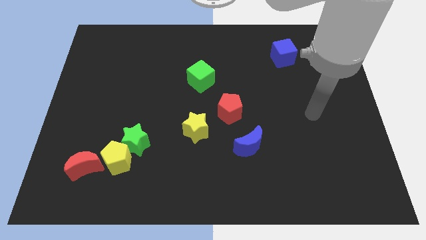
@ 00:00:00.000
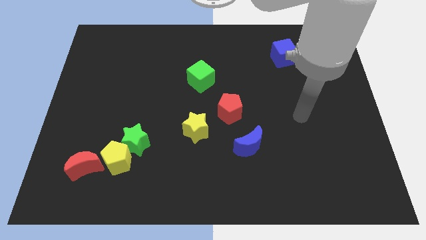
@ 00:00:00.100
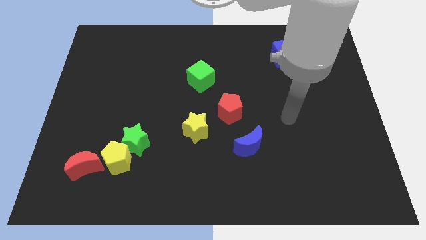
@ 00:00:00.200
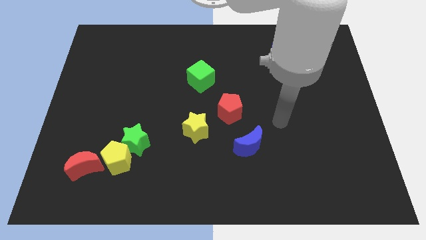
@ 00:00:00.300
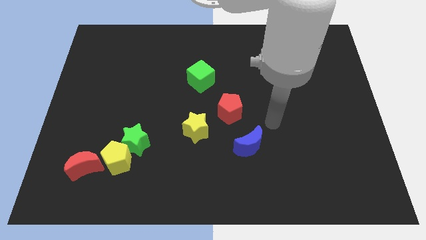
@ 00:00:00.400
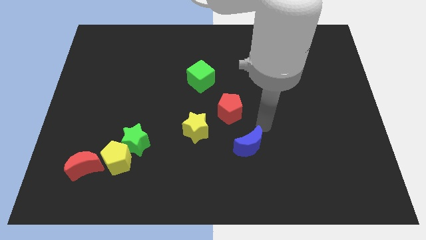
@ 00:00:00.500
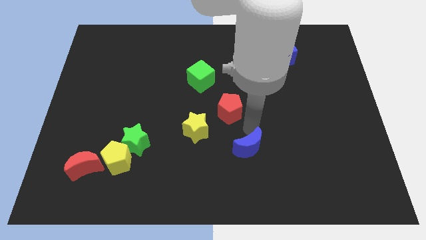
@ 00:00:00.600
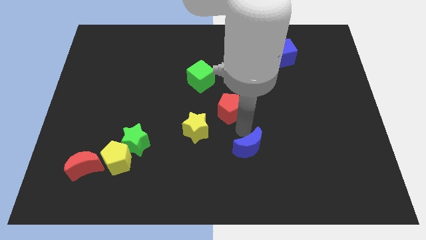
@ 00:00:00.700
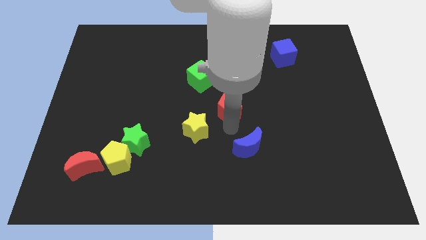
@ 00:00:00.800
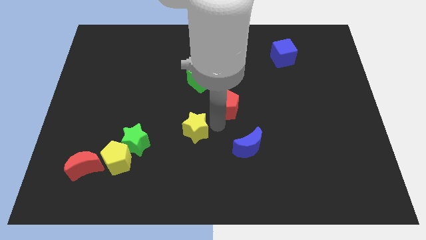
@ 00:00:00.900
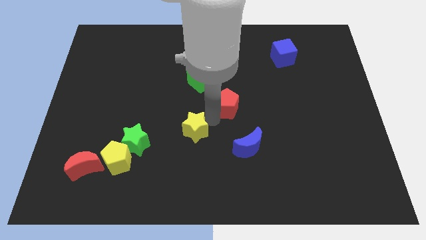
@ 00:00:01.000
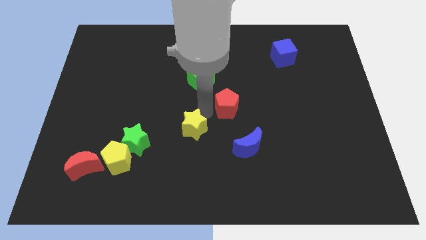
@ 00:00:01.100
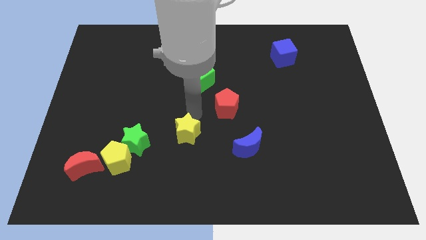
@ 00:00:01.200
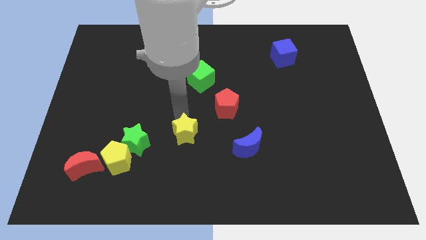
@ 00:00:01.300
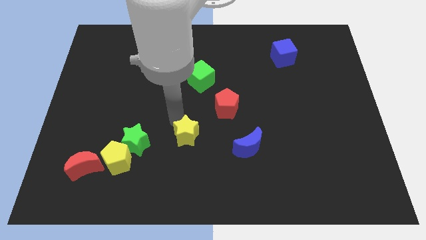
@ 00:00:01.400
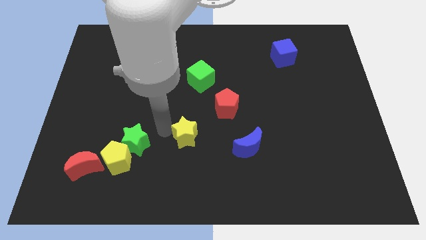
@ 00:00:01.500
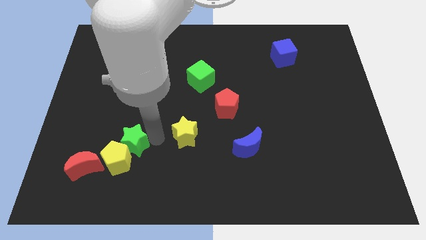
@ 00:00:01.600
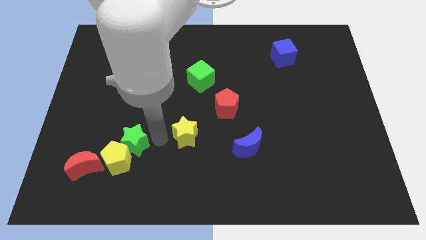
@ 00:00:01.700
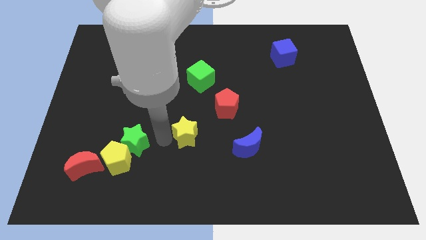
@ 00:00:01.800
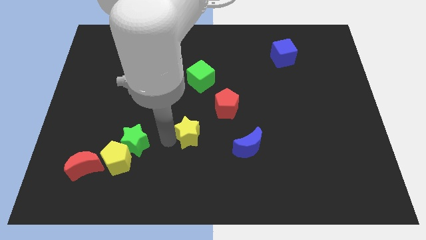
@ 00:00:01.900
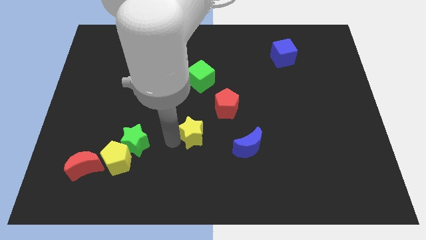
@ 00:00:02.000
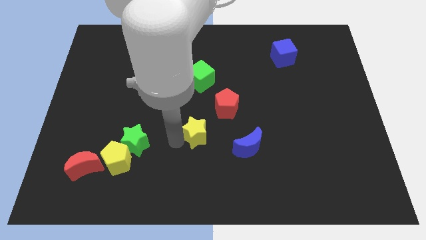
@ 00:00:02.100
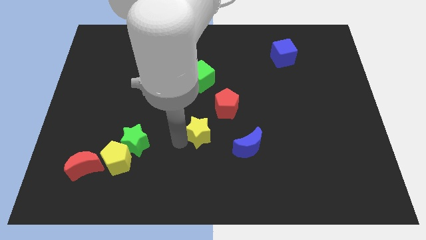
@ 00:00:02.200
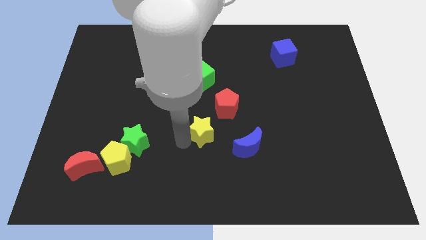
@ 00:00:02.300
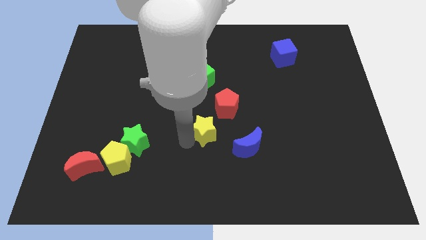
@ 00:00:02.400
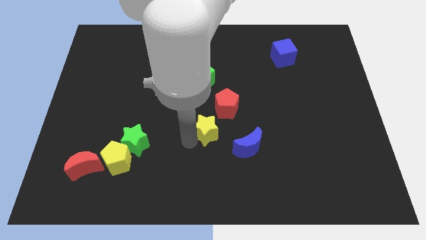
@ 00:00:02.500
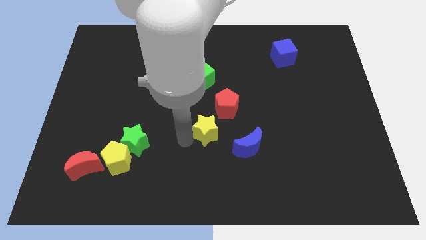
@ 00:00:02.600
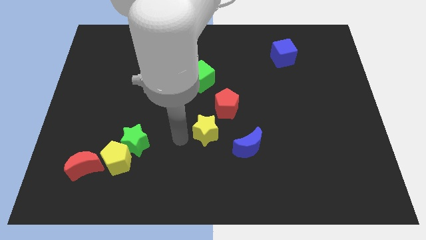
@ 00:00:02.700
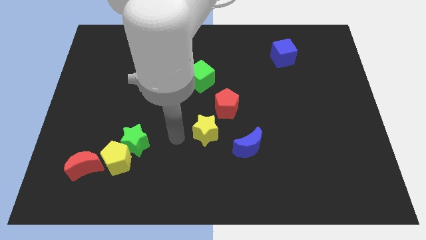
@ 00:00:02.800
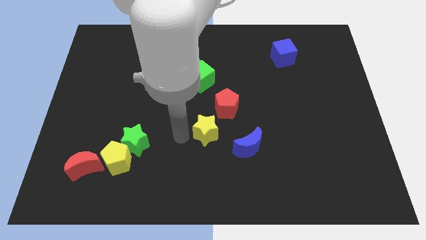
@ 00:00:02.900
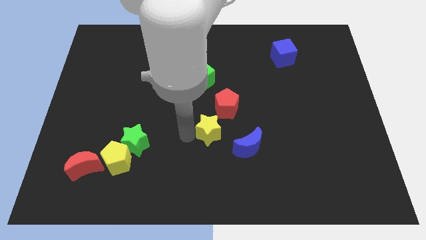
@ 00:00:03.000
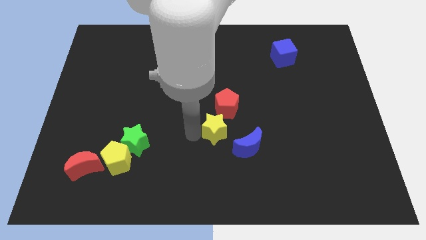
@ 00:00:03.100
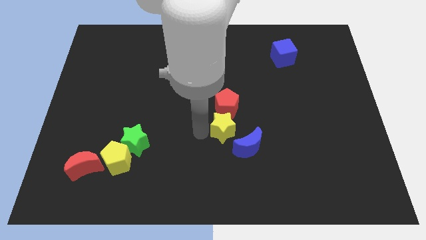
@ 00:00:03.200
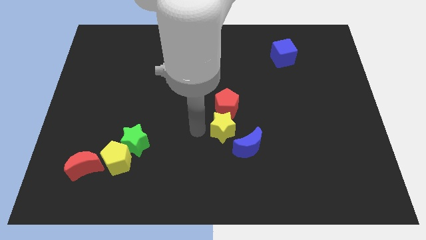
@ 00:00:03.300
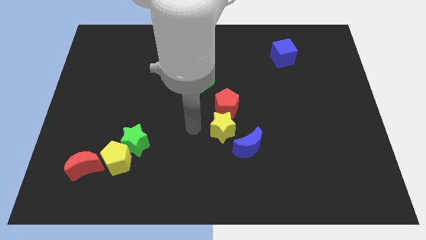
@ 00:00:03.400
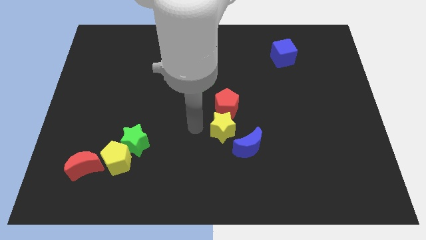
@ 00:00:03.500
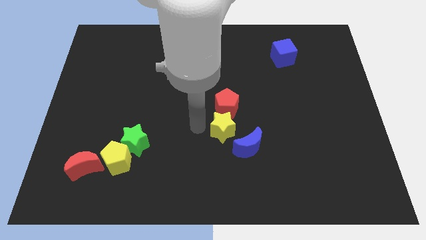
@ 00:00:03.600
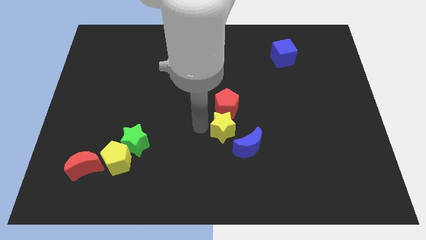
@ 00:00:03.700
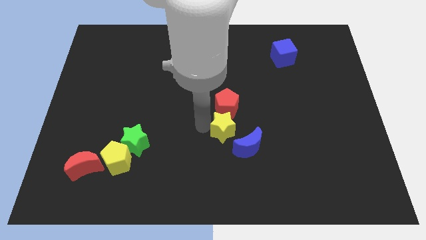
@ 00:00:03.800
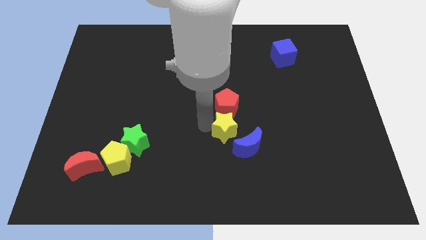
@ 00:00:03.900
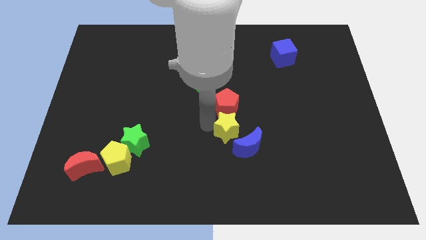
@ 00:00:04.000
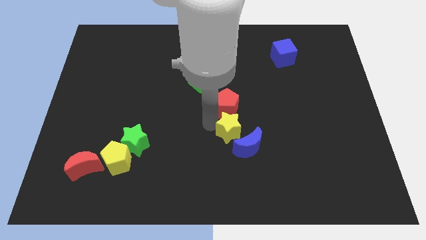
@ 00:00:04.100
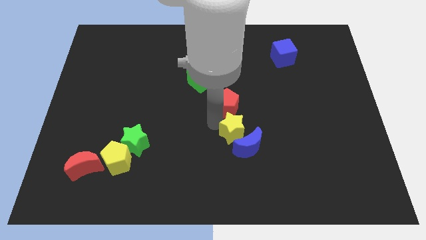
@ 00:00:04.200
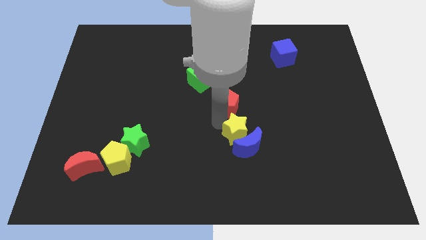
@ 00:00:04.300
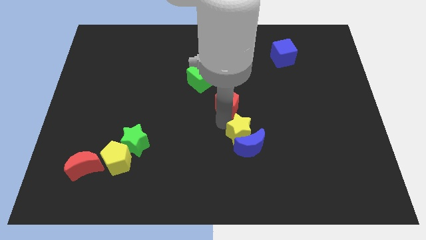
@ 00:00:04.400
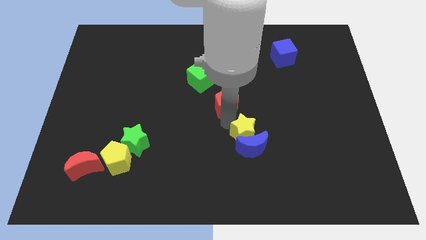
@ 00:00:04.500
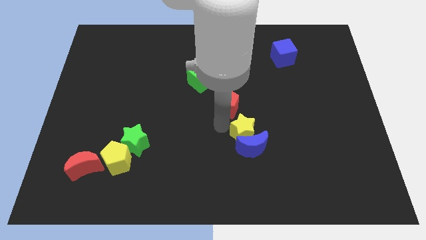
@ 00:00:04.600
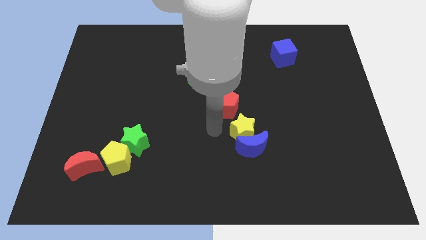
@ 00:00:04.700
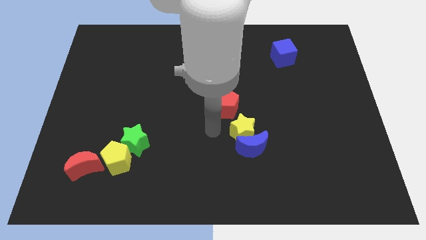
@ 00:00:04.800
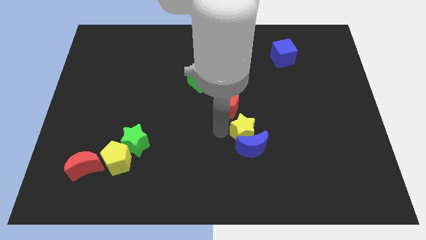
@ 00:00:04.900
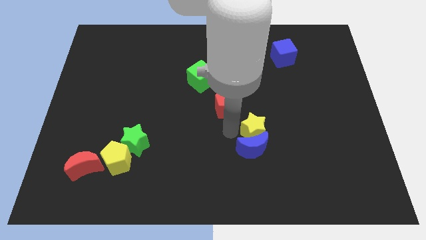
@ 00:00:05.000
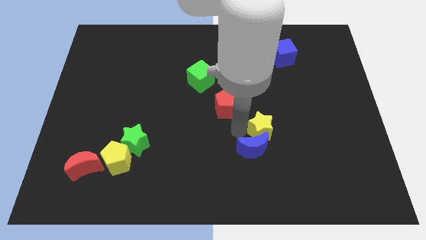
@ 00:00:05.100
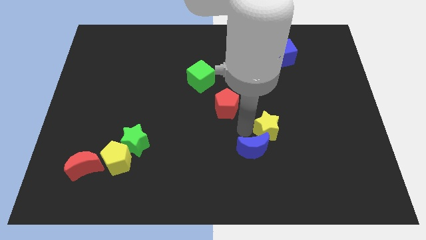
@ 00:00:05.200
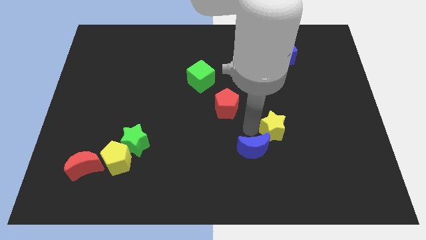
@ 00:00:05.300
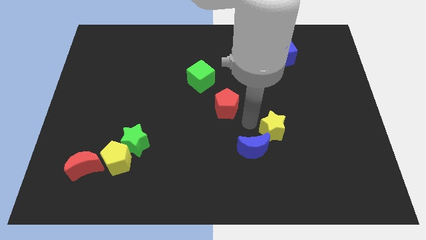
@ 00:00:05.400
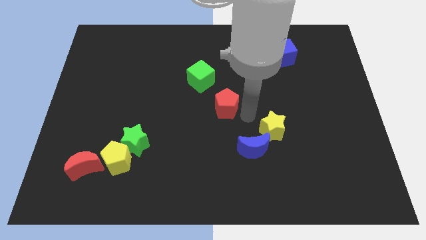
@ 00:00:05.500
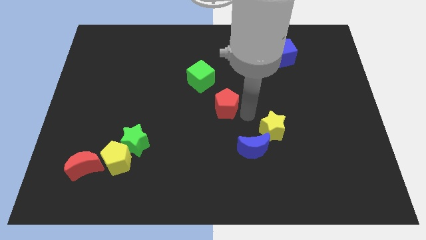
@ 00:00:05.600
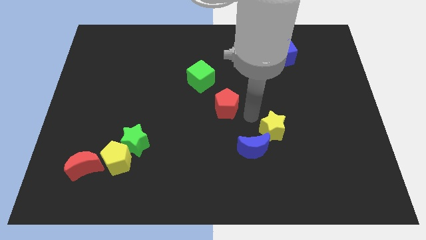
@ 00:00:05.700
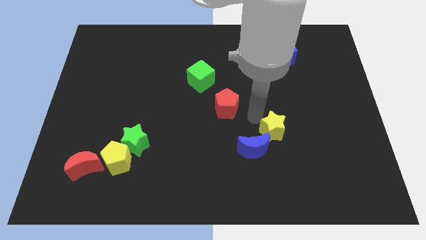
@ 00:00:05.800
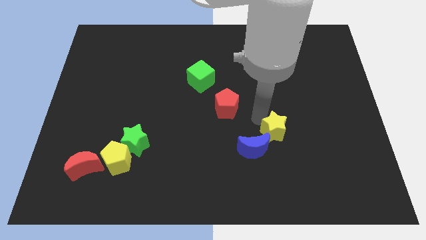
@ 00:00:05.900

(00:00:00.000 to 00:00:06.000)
move the yellow star to the right side of the blue moon

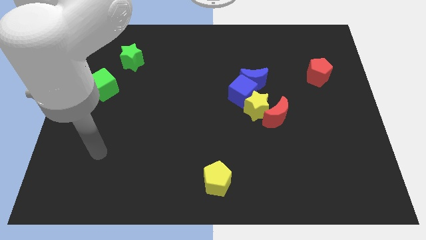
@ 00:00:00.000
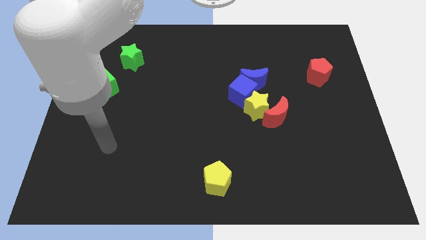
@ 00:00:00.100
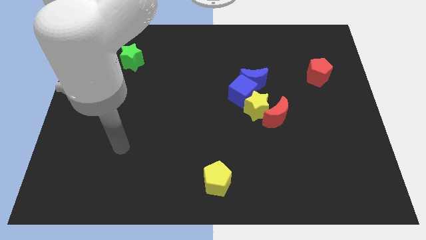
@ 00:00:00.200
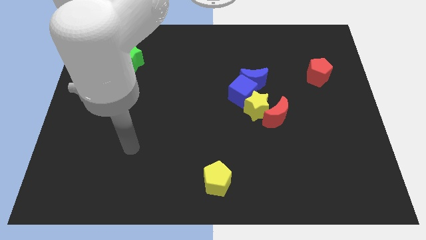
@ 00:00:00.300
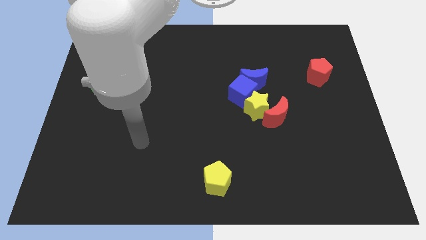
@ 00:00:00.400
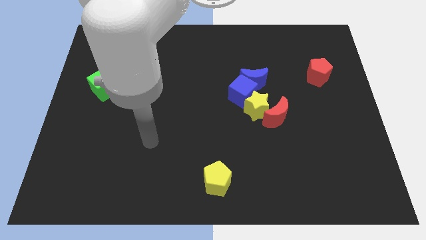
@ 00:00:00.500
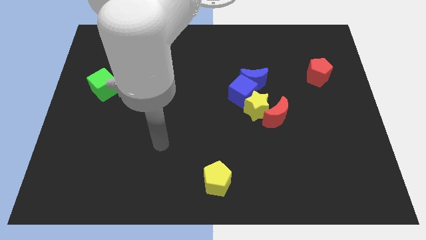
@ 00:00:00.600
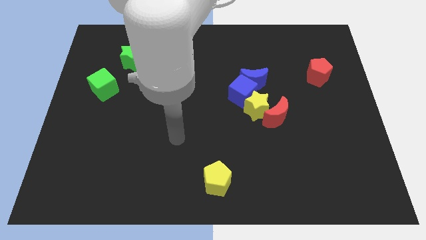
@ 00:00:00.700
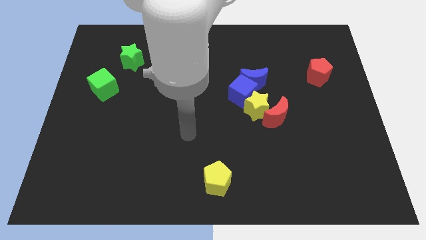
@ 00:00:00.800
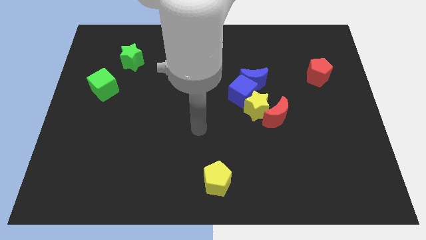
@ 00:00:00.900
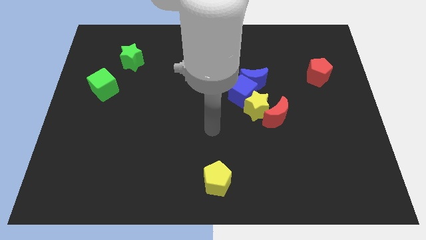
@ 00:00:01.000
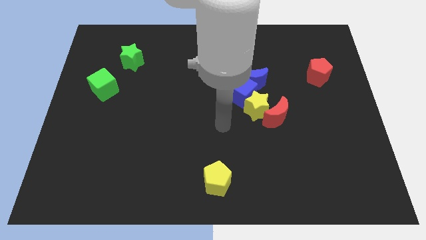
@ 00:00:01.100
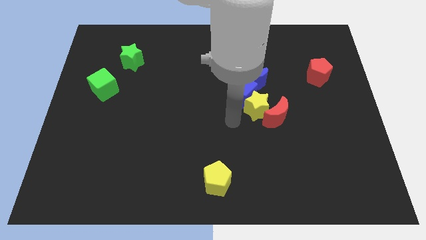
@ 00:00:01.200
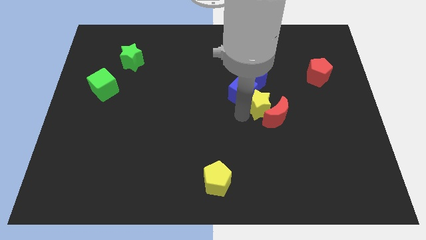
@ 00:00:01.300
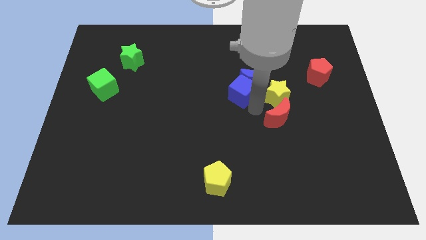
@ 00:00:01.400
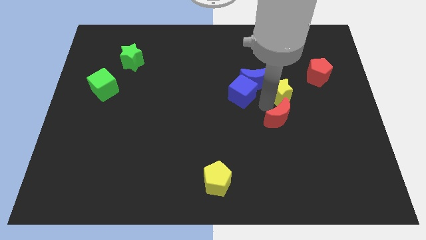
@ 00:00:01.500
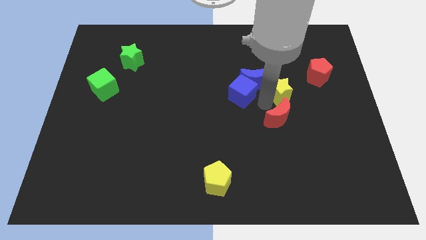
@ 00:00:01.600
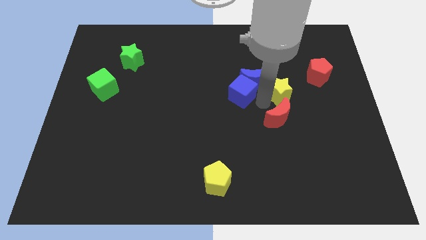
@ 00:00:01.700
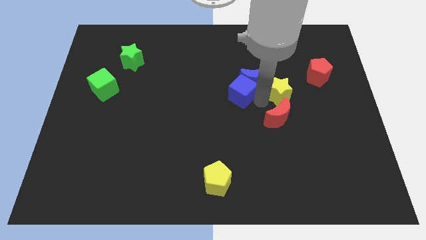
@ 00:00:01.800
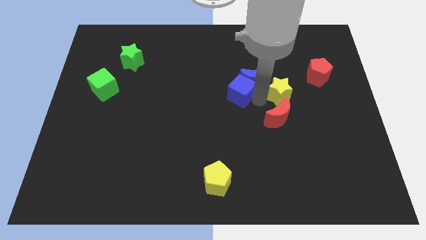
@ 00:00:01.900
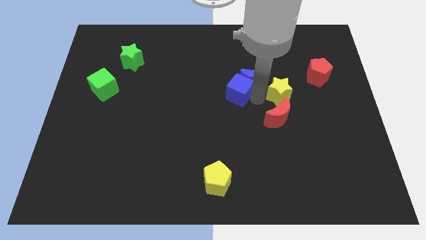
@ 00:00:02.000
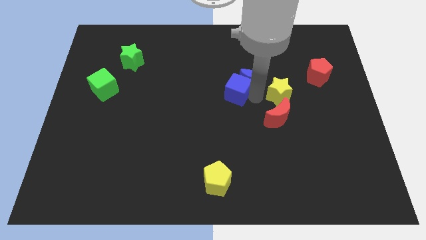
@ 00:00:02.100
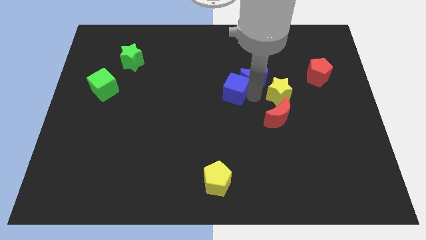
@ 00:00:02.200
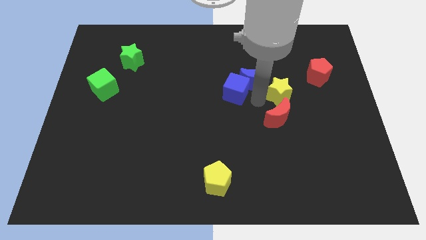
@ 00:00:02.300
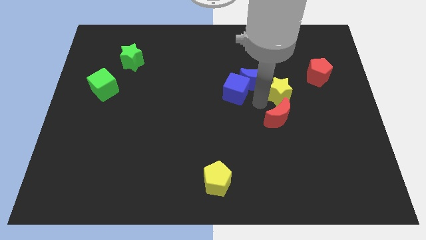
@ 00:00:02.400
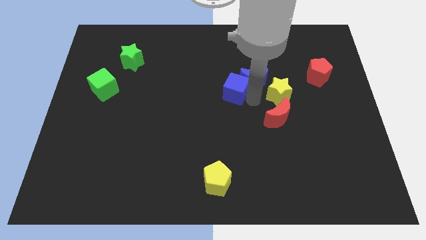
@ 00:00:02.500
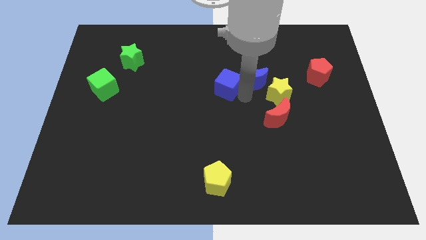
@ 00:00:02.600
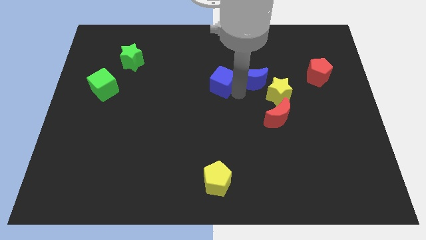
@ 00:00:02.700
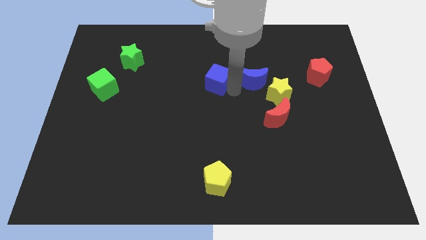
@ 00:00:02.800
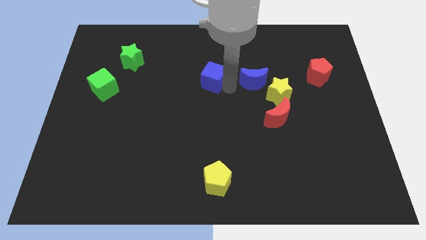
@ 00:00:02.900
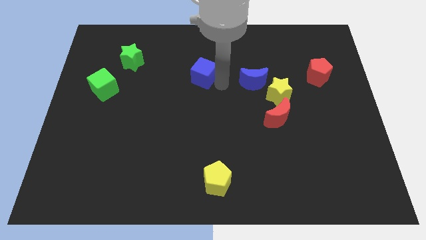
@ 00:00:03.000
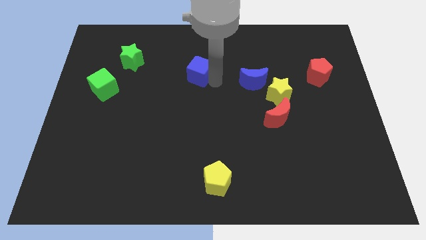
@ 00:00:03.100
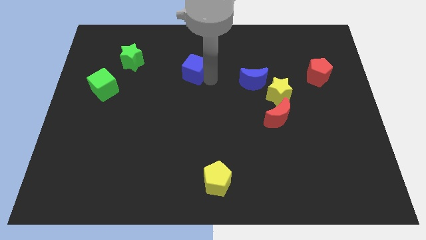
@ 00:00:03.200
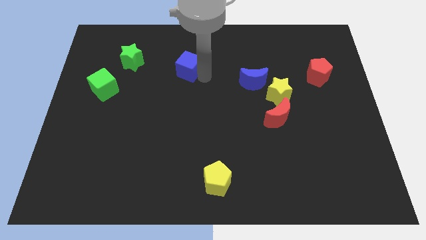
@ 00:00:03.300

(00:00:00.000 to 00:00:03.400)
put the blue cube right of the green star
